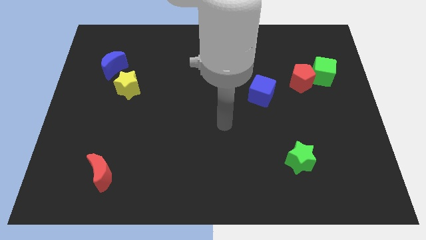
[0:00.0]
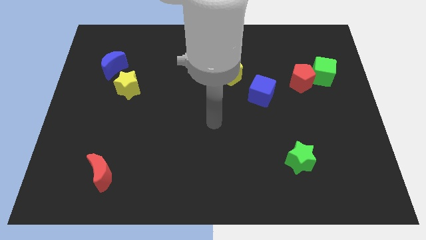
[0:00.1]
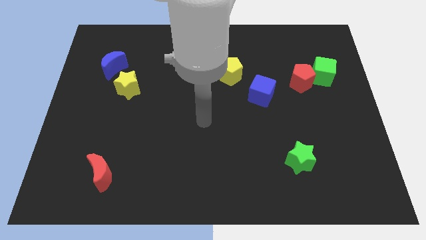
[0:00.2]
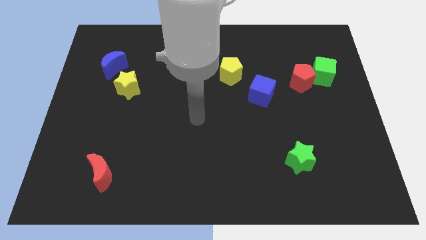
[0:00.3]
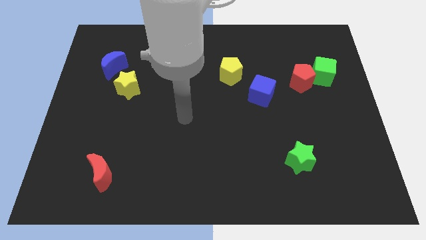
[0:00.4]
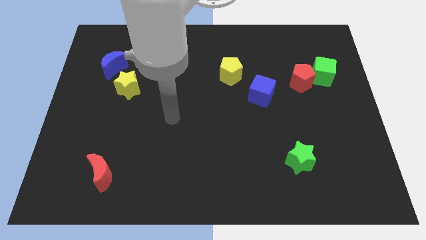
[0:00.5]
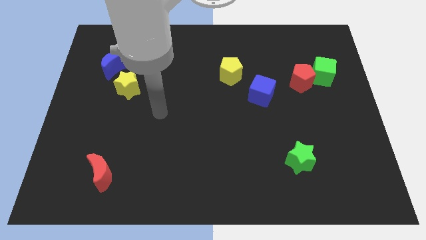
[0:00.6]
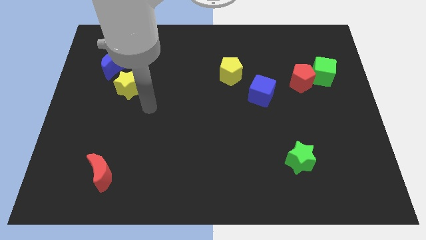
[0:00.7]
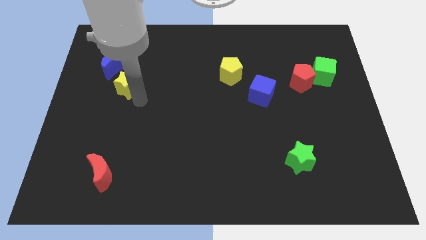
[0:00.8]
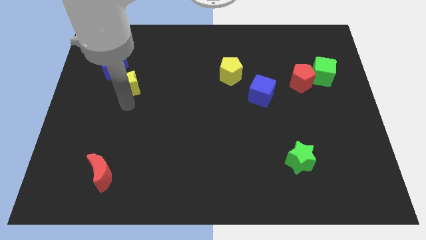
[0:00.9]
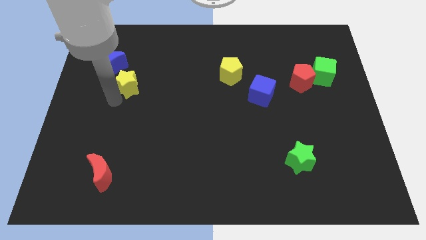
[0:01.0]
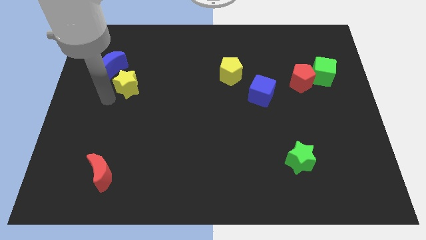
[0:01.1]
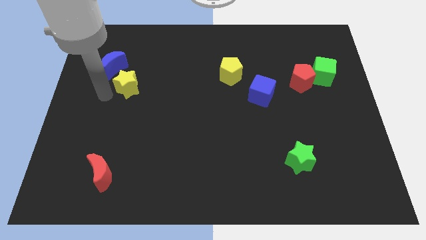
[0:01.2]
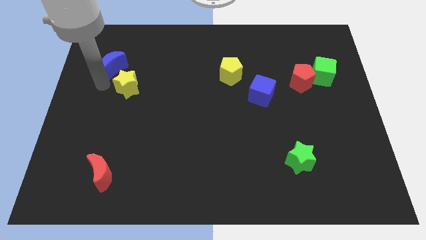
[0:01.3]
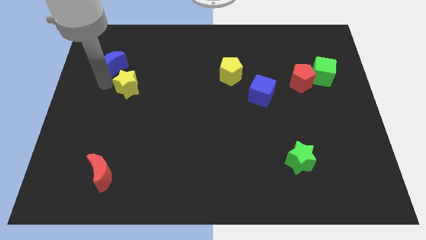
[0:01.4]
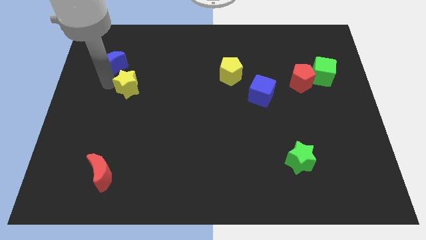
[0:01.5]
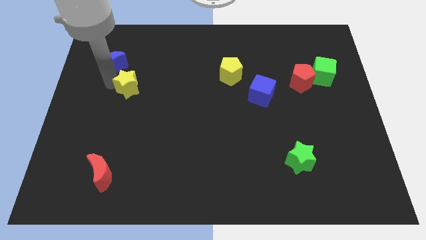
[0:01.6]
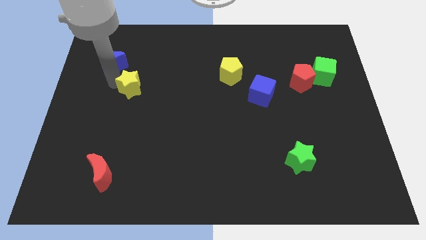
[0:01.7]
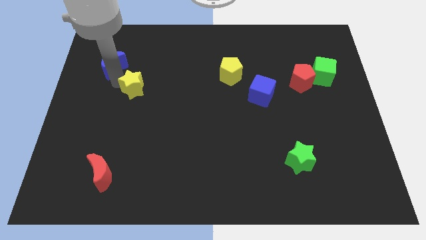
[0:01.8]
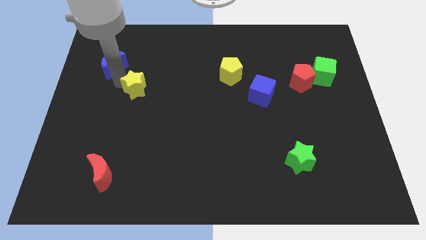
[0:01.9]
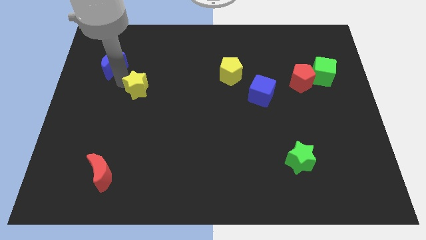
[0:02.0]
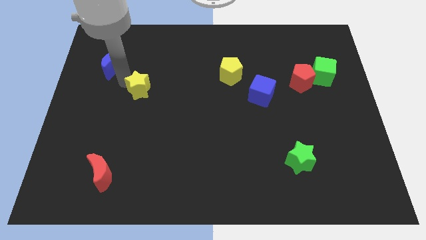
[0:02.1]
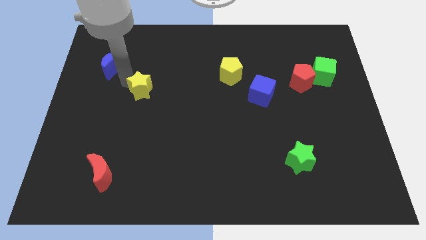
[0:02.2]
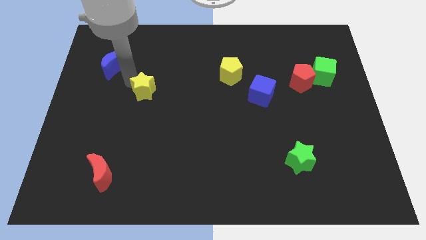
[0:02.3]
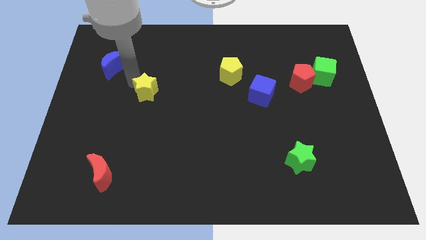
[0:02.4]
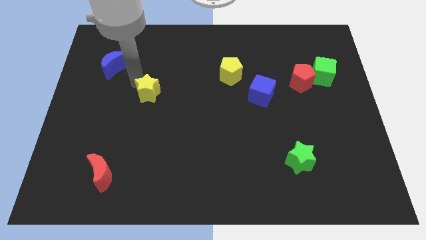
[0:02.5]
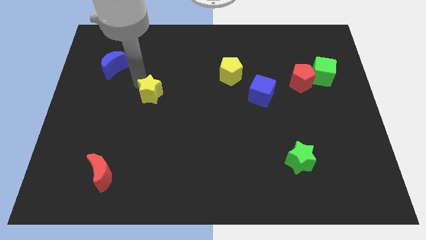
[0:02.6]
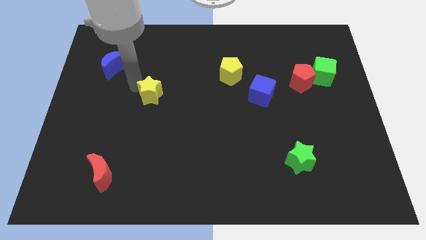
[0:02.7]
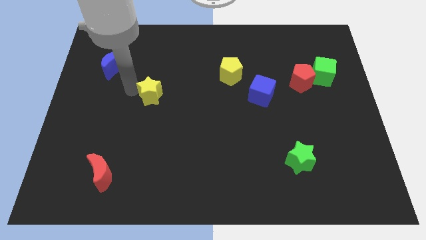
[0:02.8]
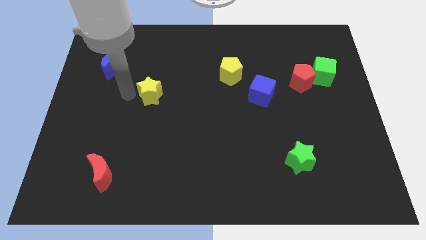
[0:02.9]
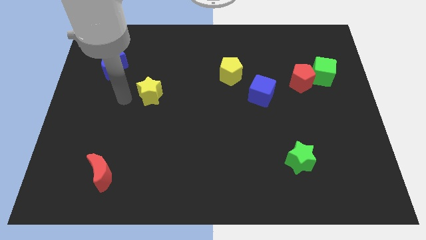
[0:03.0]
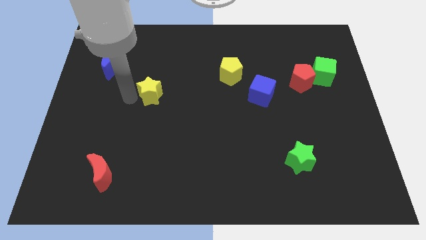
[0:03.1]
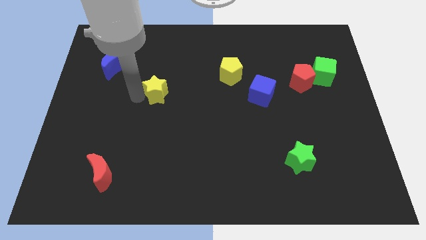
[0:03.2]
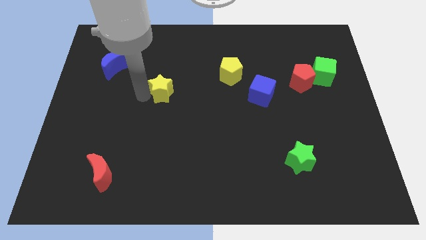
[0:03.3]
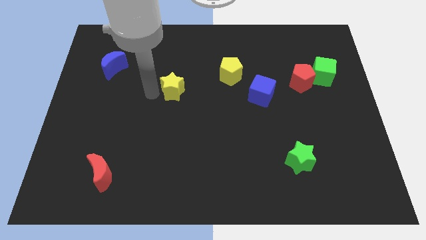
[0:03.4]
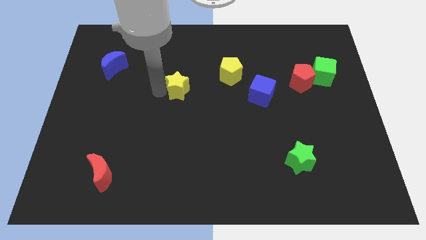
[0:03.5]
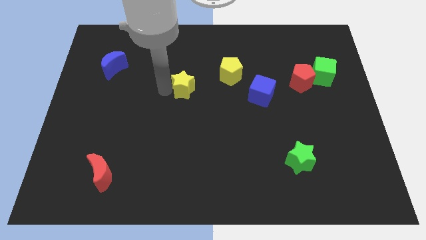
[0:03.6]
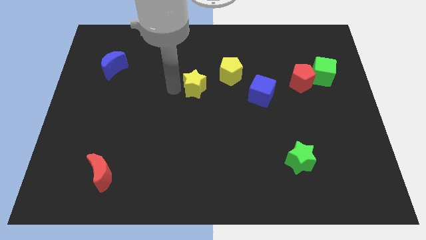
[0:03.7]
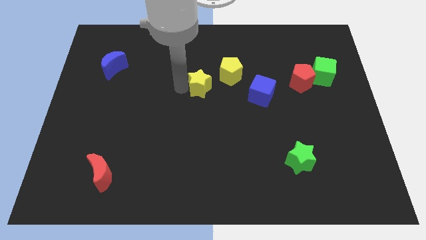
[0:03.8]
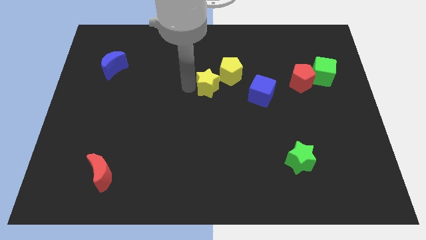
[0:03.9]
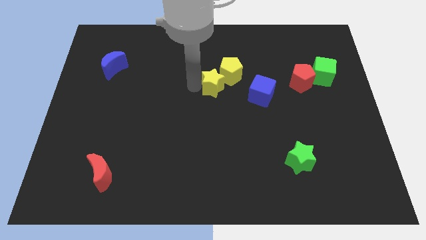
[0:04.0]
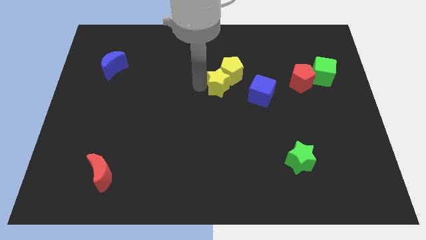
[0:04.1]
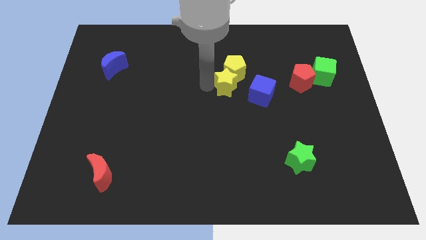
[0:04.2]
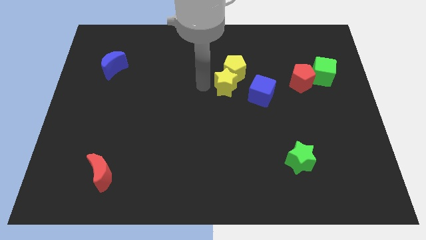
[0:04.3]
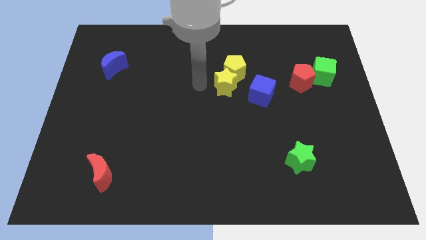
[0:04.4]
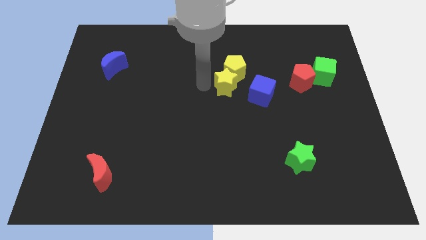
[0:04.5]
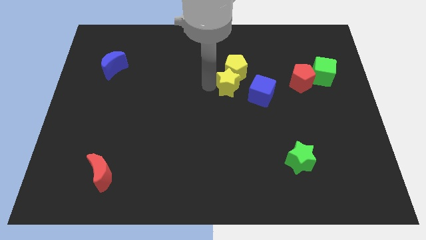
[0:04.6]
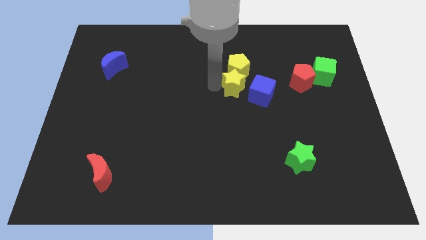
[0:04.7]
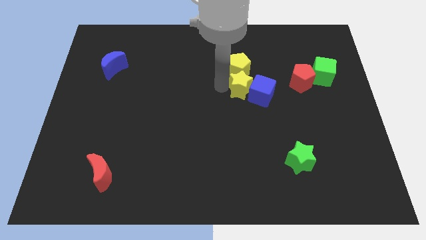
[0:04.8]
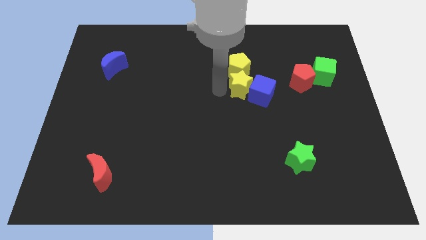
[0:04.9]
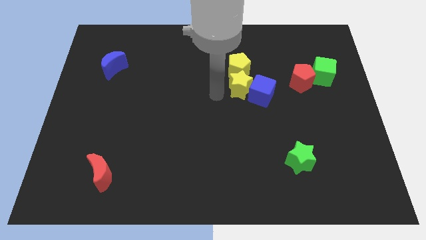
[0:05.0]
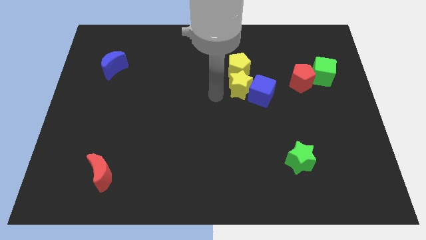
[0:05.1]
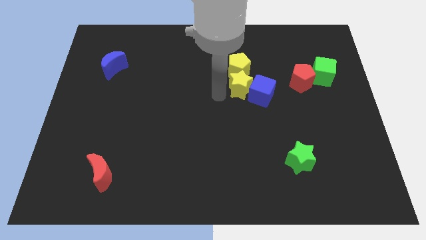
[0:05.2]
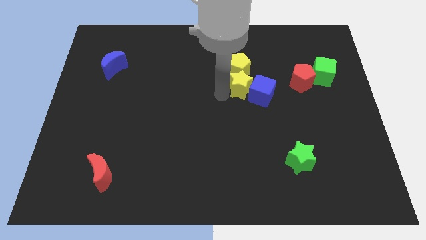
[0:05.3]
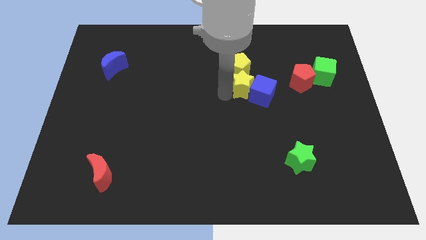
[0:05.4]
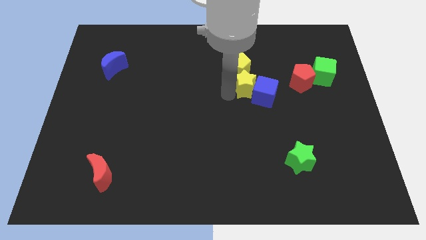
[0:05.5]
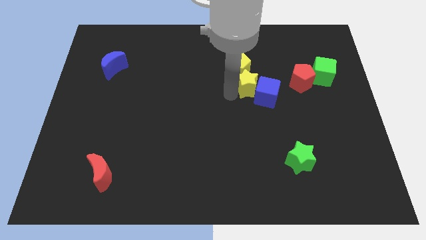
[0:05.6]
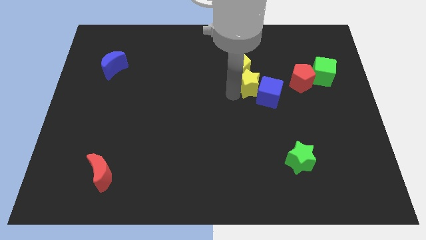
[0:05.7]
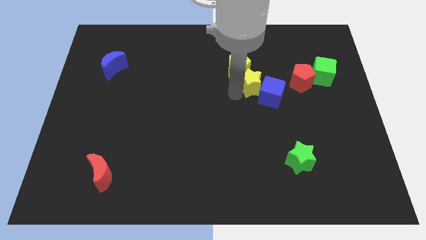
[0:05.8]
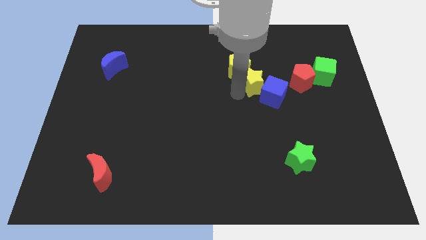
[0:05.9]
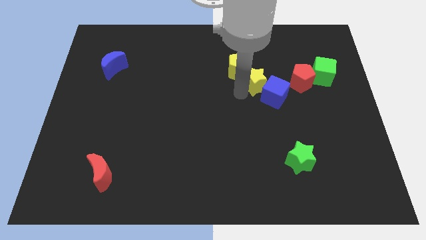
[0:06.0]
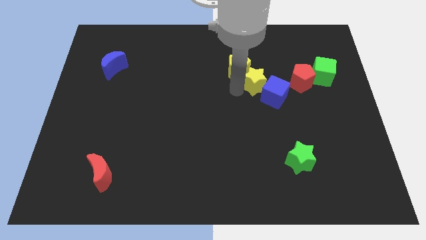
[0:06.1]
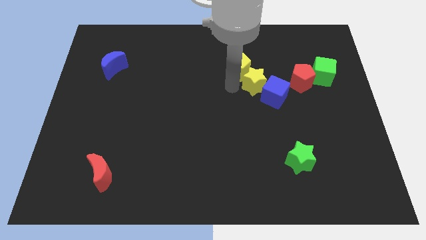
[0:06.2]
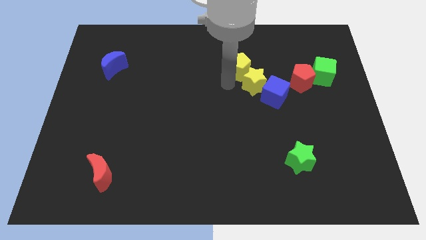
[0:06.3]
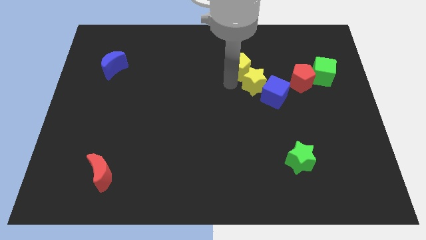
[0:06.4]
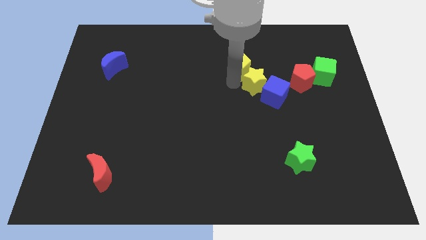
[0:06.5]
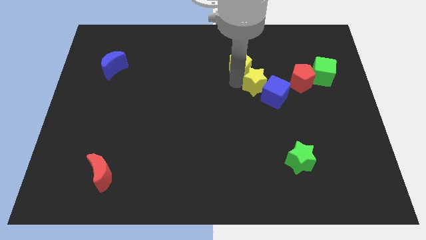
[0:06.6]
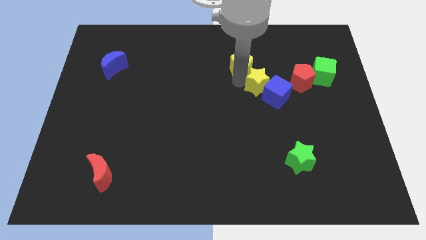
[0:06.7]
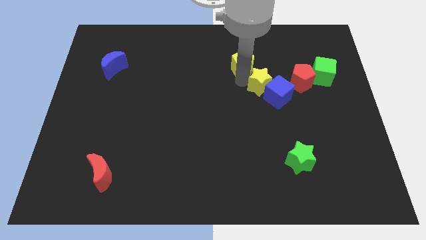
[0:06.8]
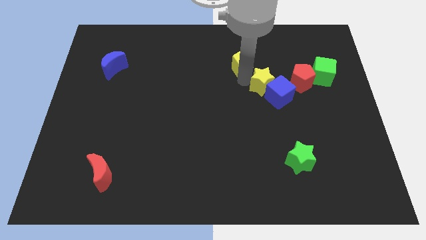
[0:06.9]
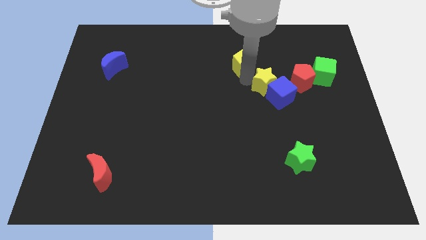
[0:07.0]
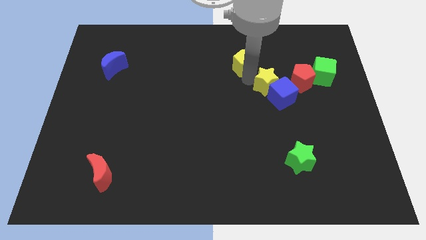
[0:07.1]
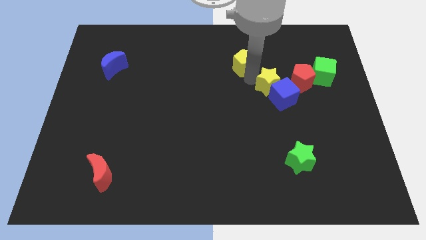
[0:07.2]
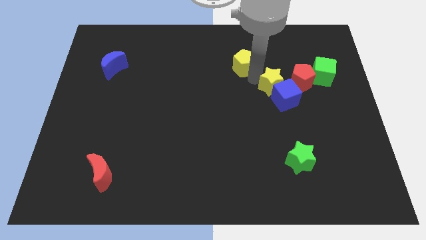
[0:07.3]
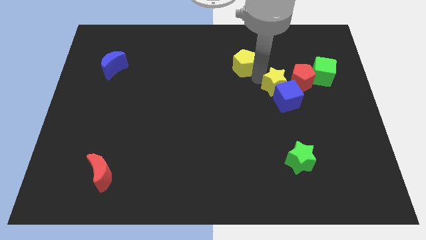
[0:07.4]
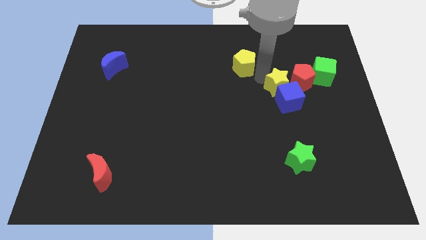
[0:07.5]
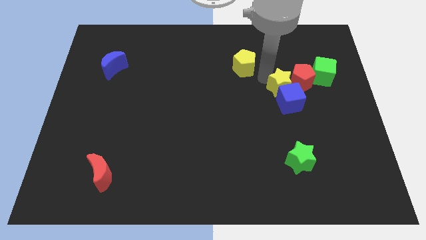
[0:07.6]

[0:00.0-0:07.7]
move the yellow star close to the red pentagon
